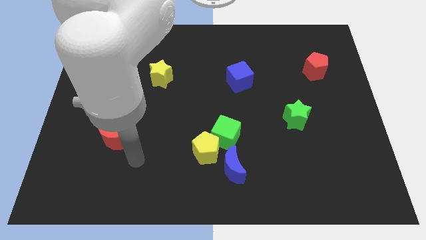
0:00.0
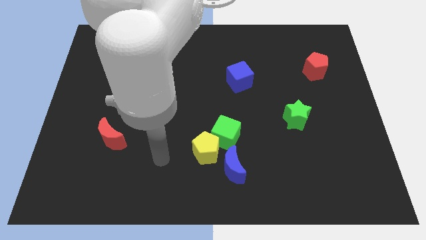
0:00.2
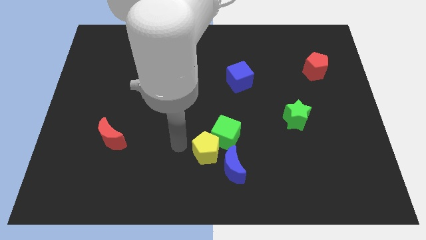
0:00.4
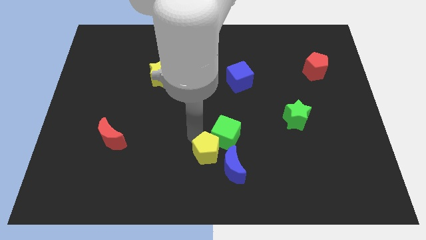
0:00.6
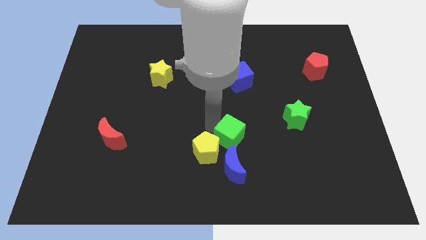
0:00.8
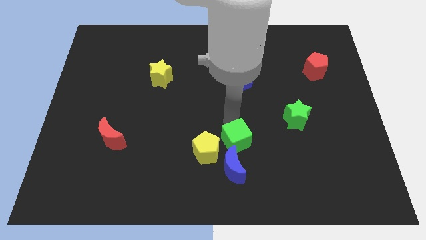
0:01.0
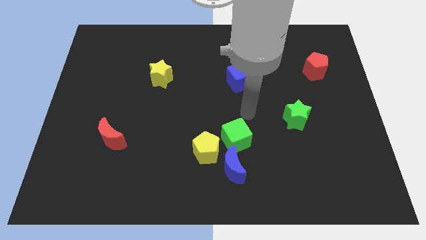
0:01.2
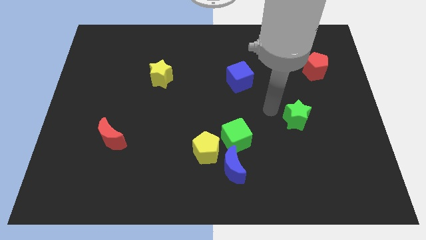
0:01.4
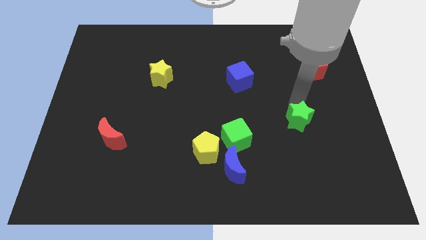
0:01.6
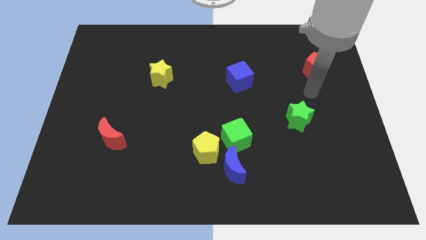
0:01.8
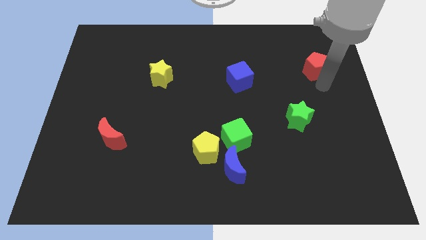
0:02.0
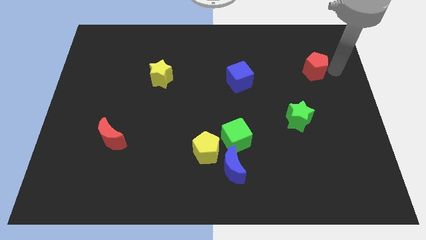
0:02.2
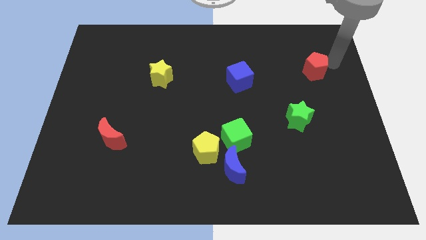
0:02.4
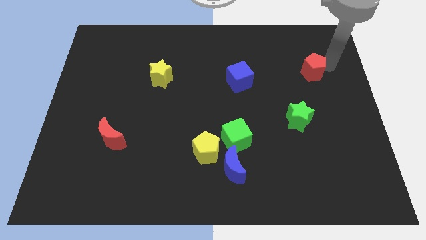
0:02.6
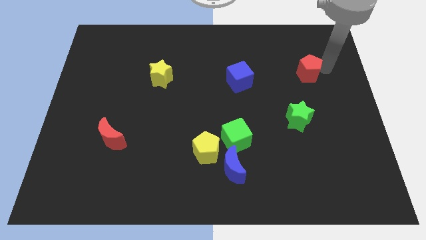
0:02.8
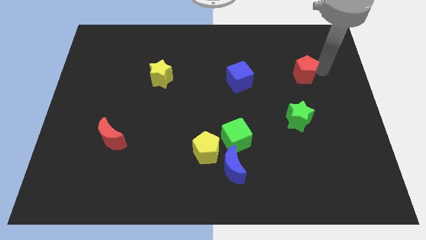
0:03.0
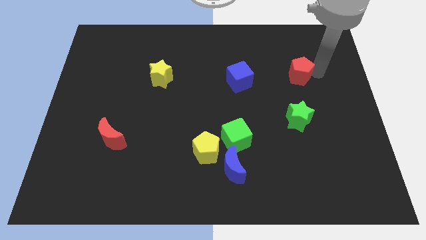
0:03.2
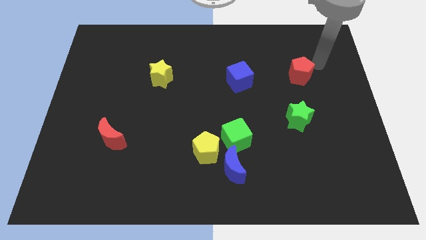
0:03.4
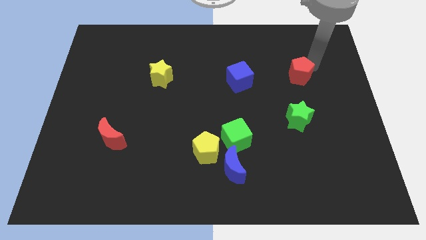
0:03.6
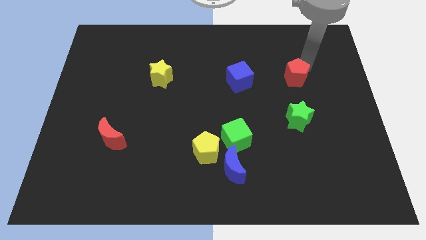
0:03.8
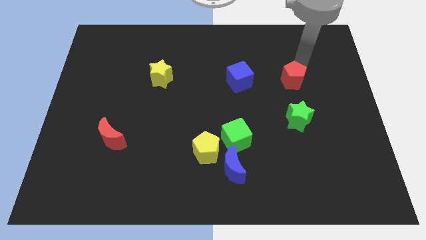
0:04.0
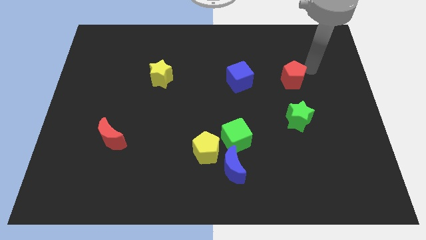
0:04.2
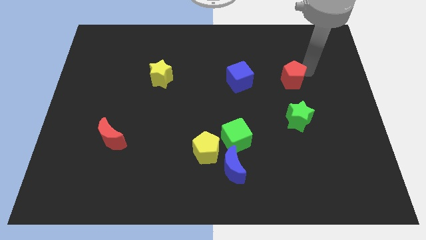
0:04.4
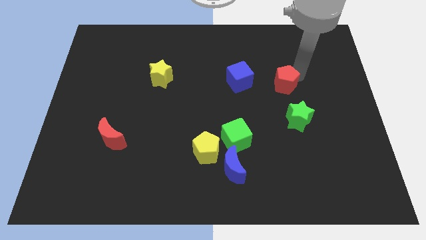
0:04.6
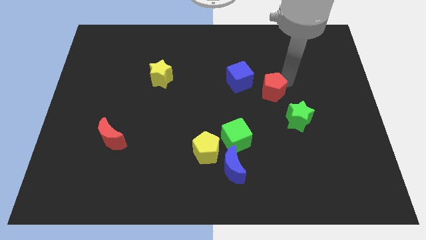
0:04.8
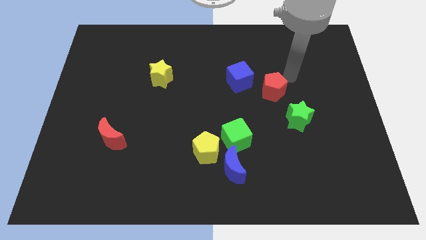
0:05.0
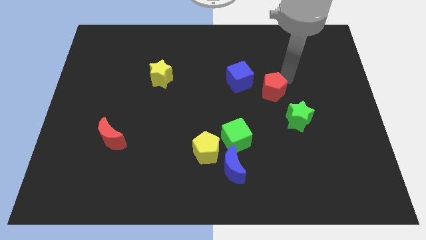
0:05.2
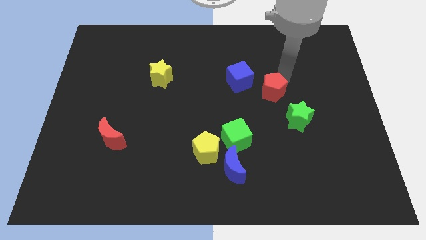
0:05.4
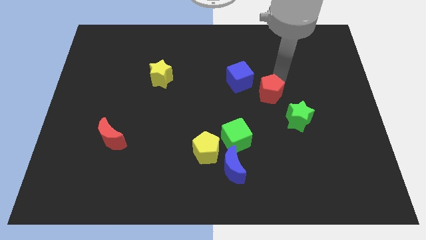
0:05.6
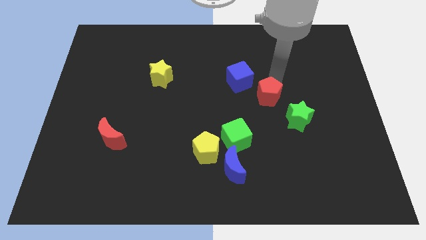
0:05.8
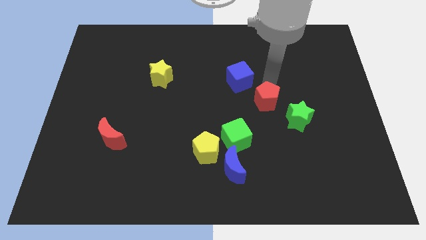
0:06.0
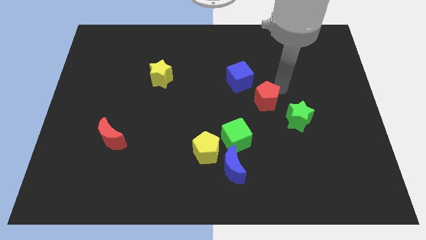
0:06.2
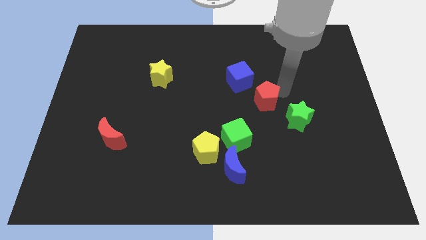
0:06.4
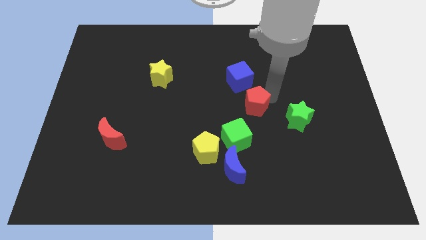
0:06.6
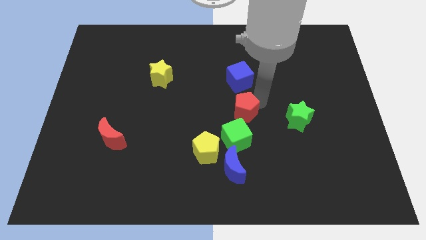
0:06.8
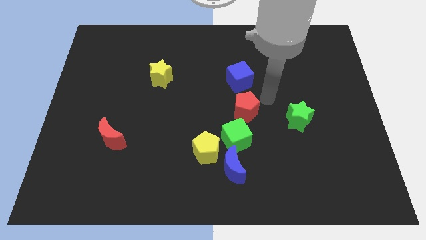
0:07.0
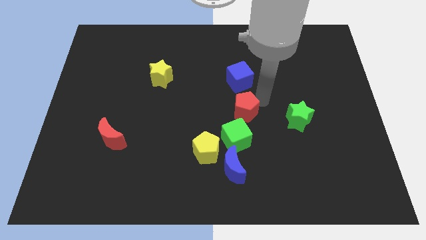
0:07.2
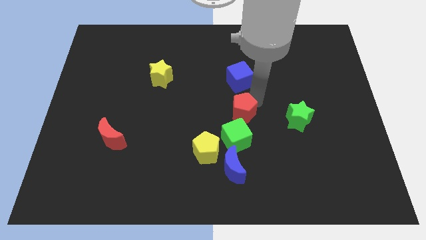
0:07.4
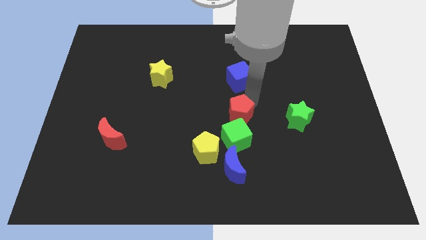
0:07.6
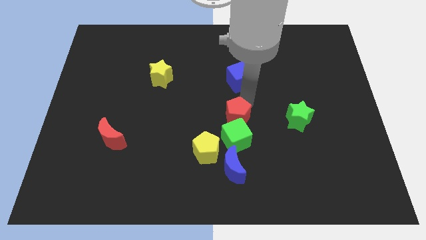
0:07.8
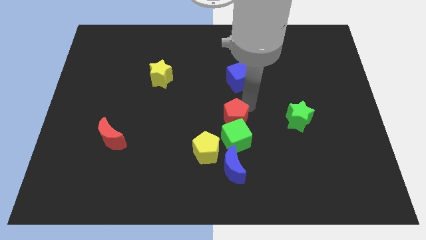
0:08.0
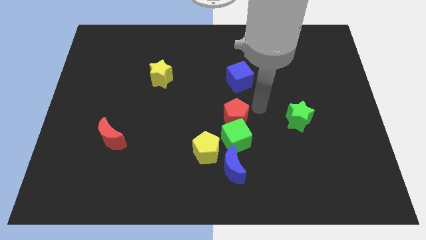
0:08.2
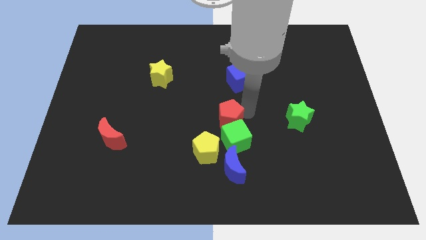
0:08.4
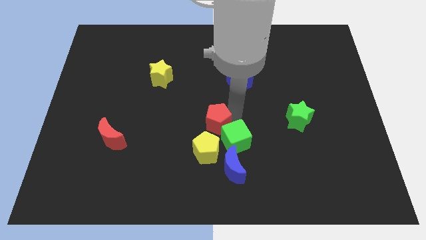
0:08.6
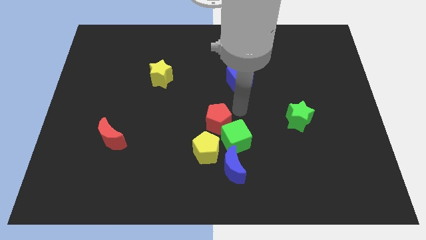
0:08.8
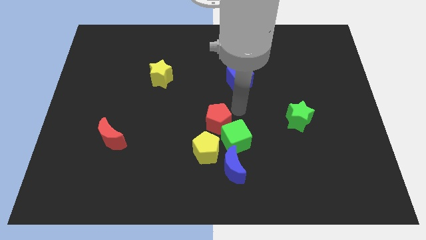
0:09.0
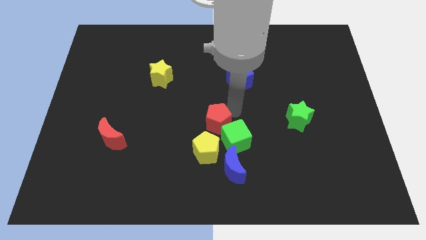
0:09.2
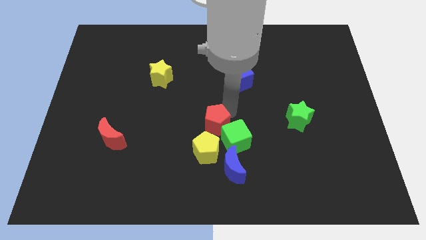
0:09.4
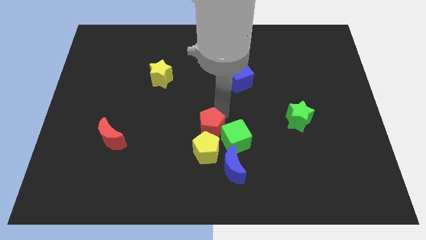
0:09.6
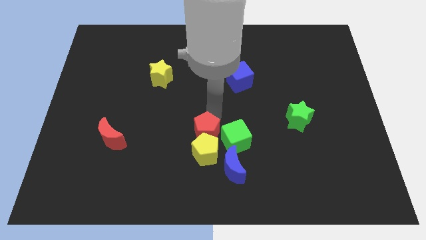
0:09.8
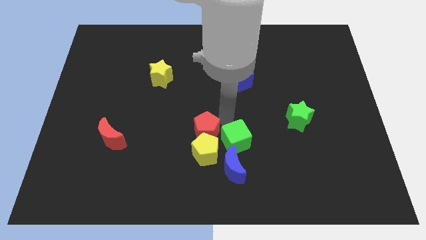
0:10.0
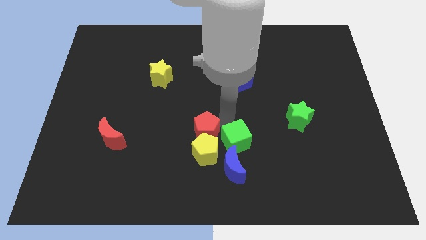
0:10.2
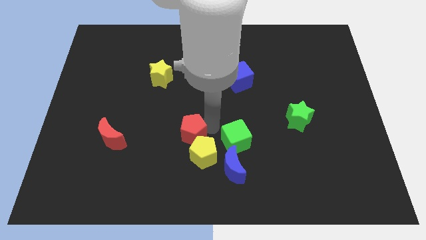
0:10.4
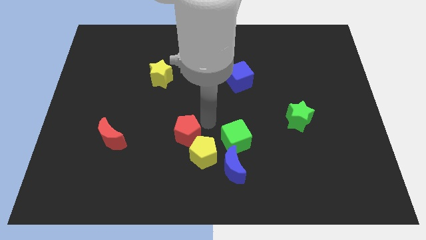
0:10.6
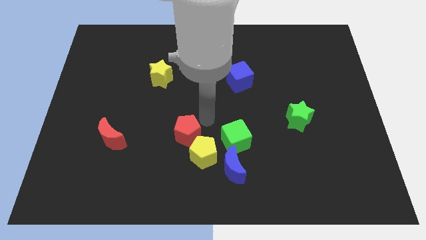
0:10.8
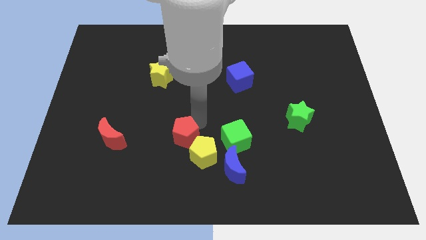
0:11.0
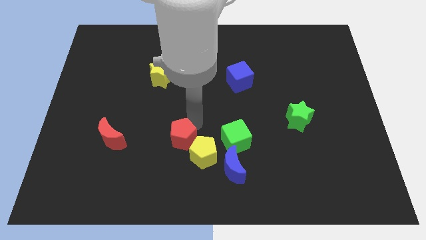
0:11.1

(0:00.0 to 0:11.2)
put the red pentagon to the left side of the yellow pentagon

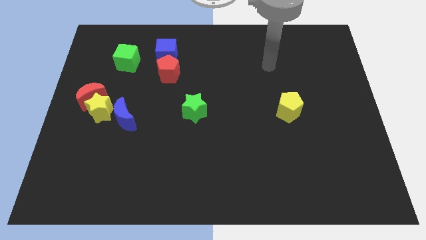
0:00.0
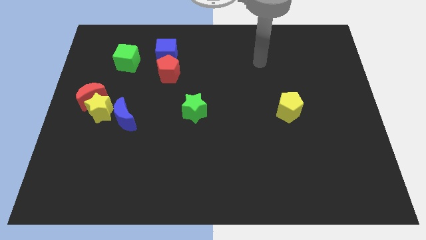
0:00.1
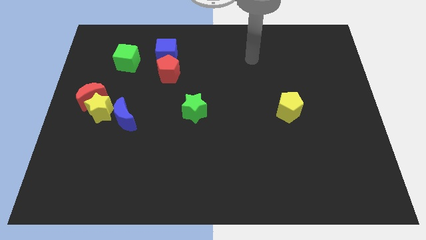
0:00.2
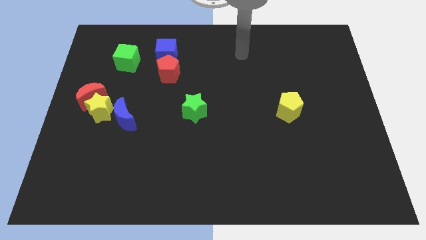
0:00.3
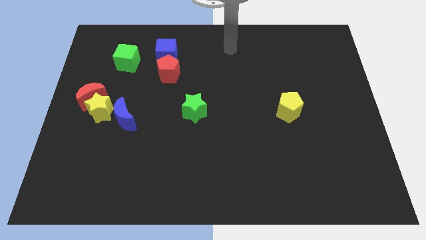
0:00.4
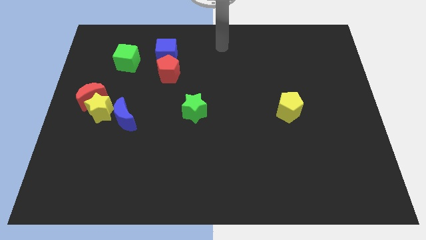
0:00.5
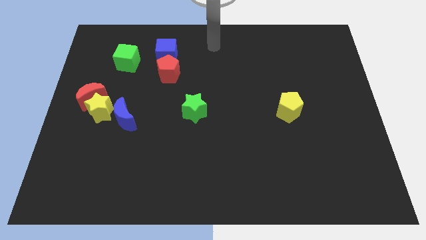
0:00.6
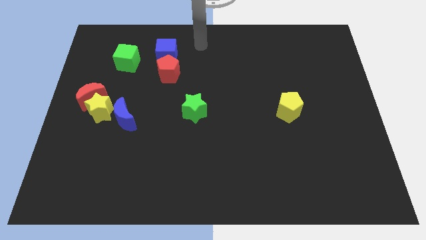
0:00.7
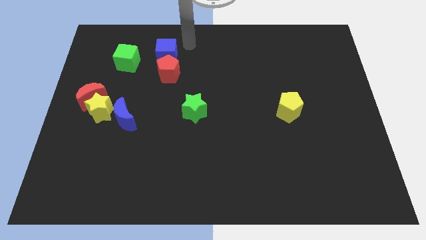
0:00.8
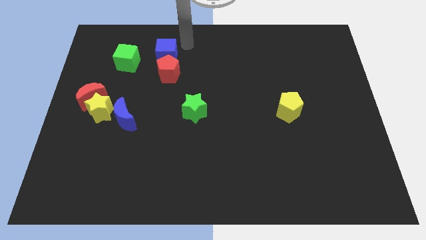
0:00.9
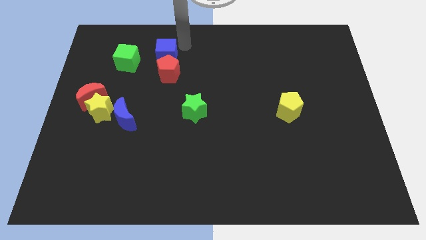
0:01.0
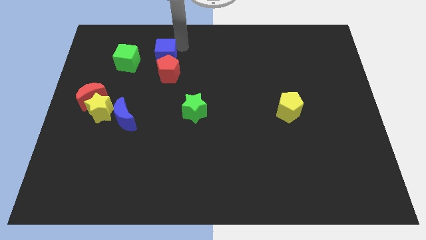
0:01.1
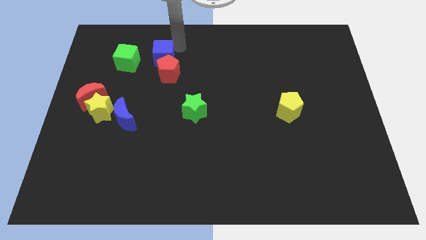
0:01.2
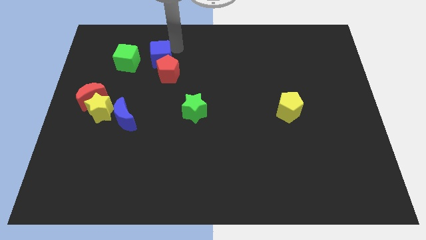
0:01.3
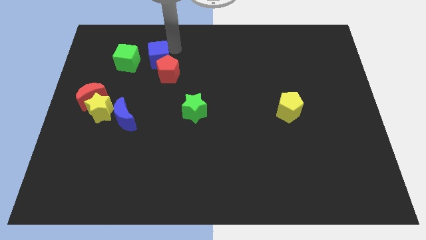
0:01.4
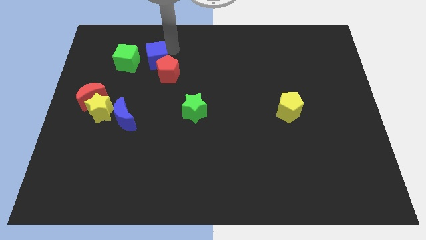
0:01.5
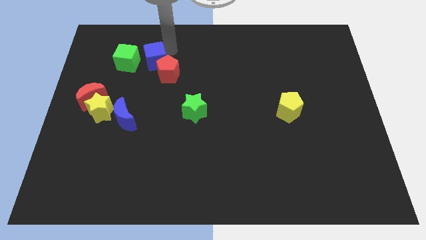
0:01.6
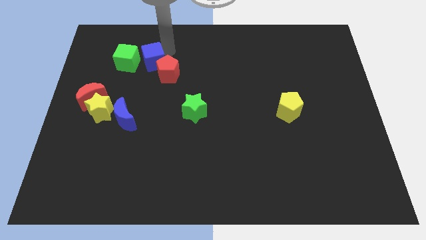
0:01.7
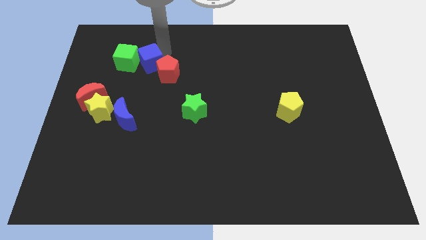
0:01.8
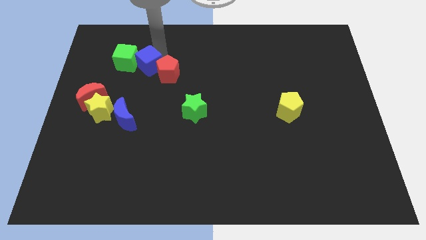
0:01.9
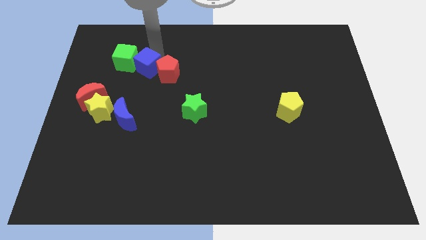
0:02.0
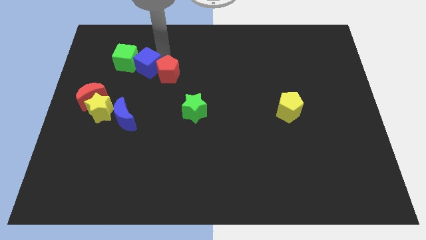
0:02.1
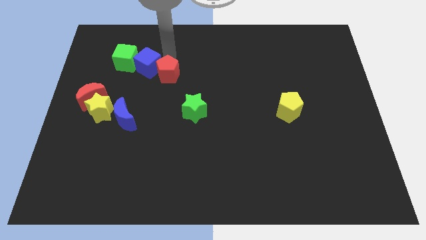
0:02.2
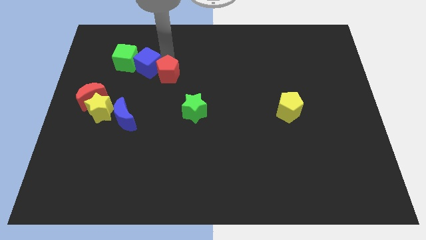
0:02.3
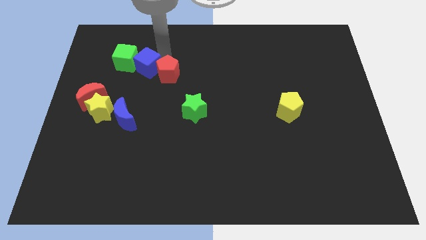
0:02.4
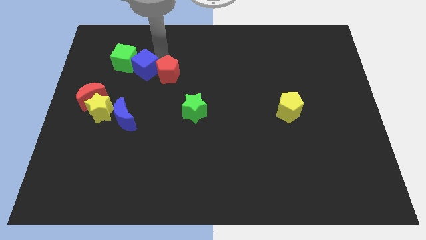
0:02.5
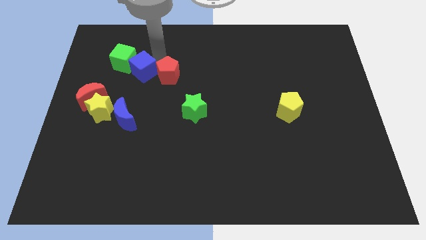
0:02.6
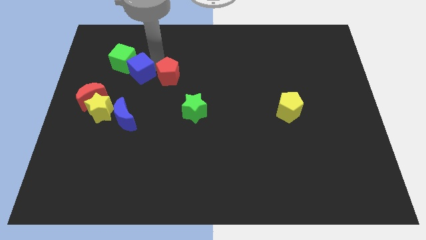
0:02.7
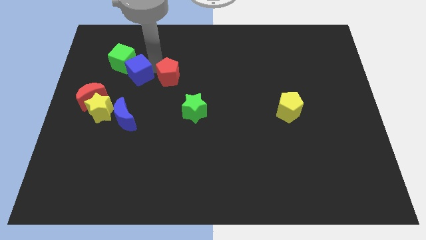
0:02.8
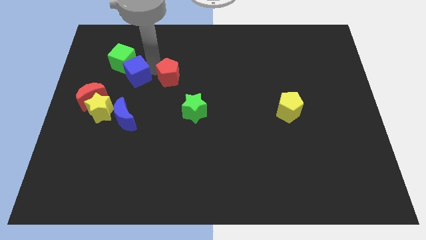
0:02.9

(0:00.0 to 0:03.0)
move the blue cube diagonally up and to the right of the red moon

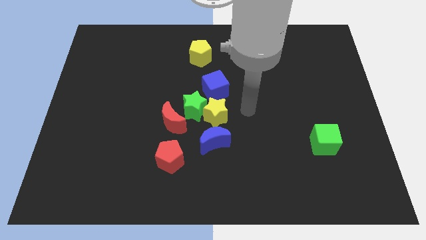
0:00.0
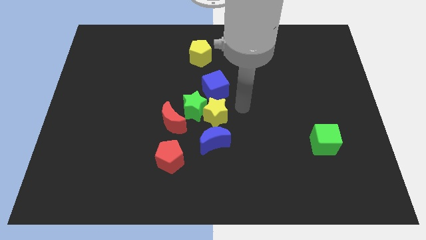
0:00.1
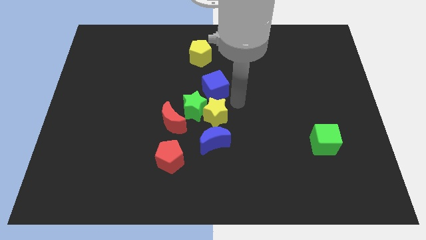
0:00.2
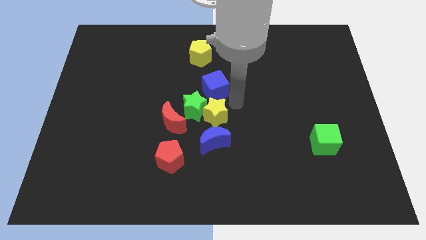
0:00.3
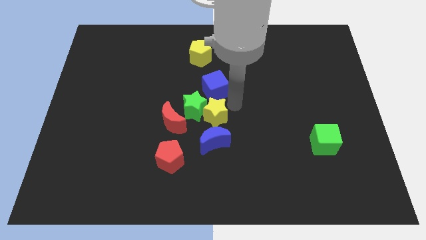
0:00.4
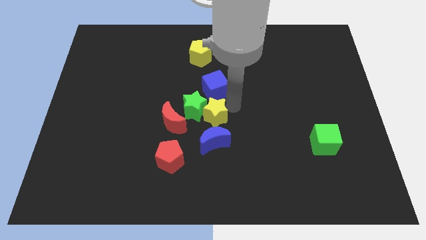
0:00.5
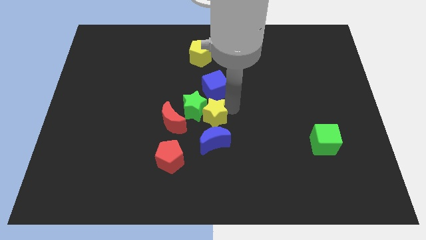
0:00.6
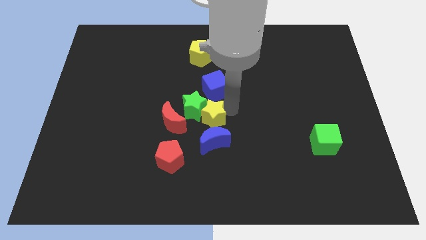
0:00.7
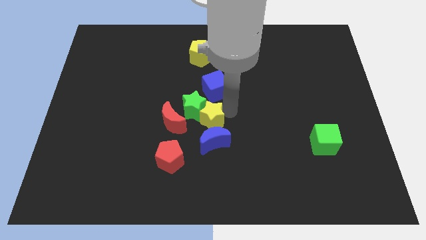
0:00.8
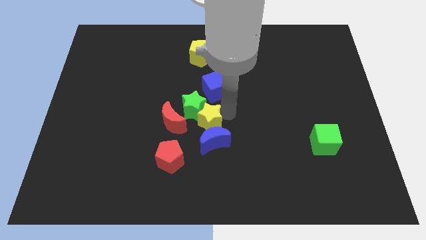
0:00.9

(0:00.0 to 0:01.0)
push the yellow star to the top right side of the red pentagon
